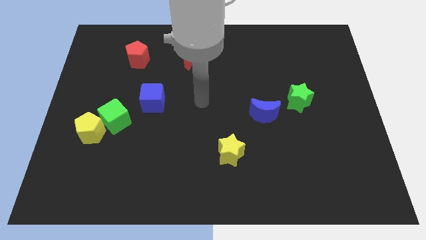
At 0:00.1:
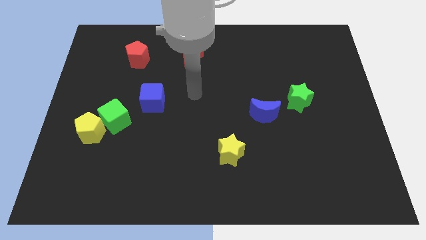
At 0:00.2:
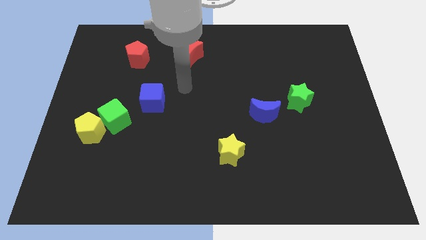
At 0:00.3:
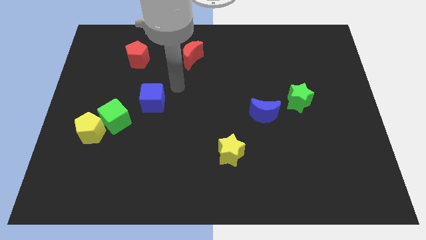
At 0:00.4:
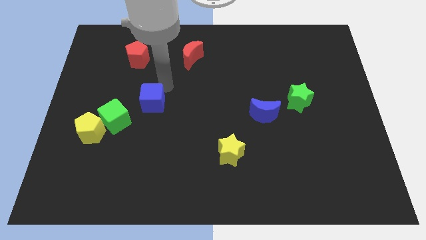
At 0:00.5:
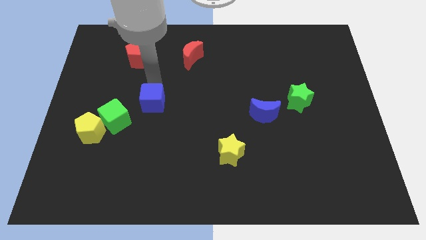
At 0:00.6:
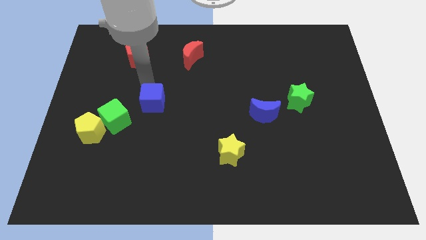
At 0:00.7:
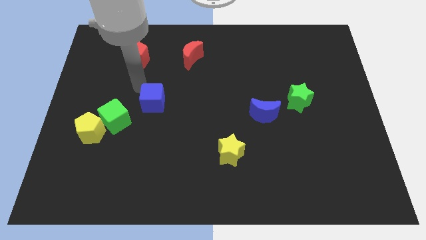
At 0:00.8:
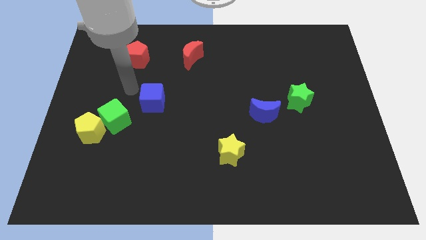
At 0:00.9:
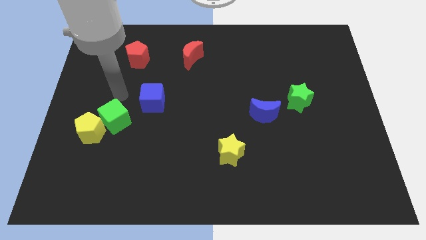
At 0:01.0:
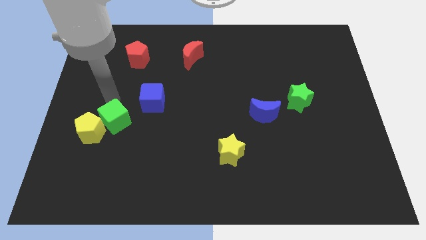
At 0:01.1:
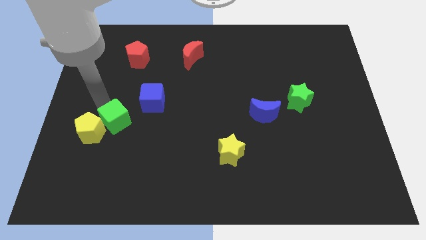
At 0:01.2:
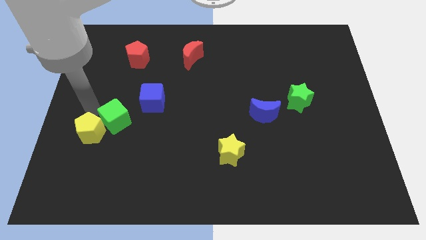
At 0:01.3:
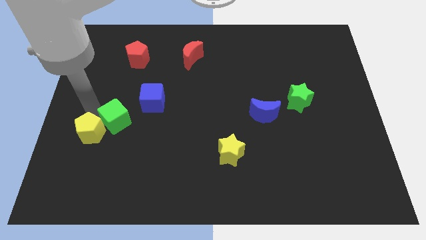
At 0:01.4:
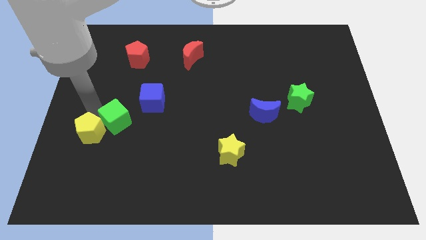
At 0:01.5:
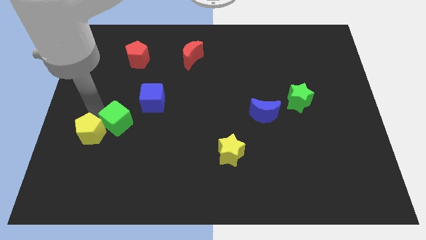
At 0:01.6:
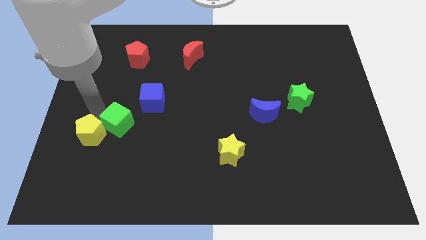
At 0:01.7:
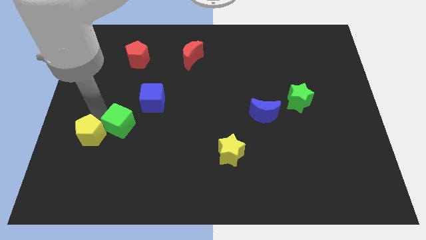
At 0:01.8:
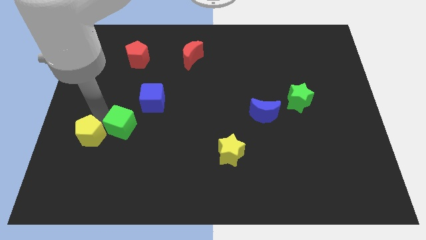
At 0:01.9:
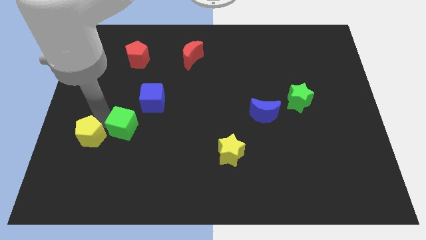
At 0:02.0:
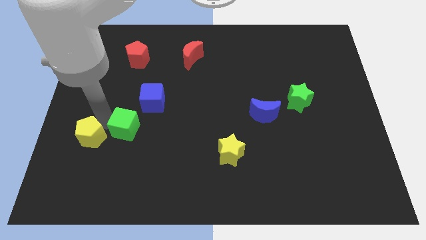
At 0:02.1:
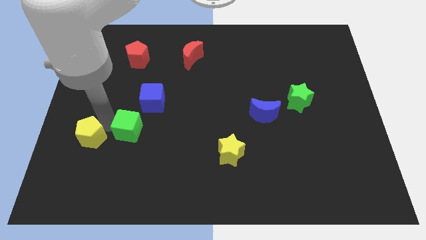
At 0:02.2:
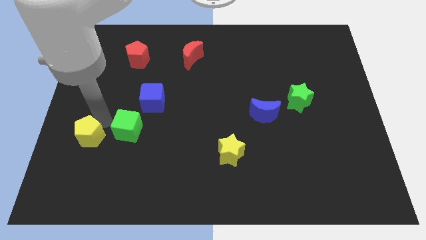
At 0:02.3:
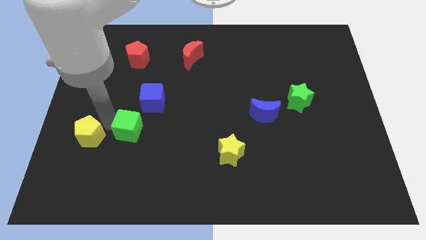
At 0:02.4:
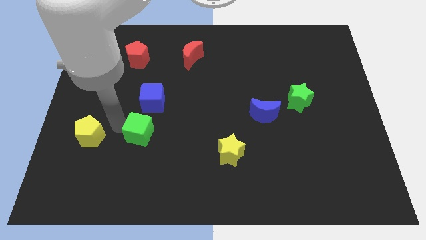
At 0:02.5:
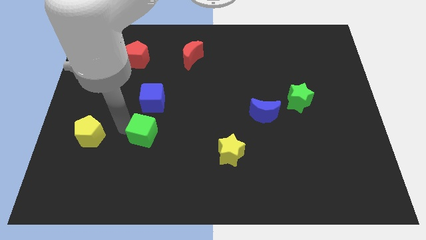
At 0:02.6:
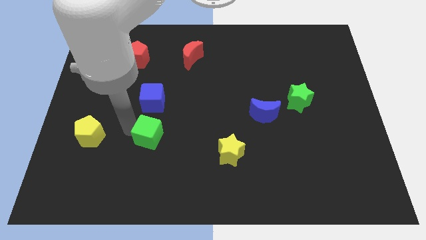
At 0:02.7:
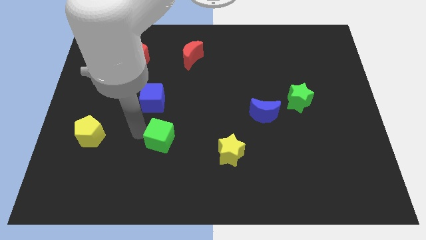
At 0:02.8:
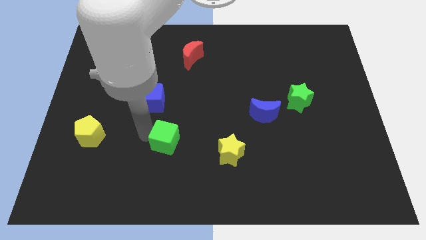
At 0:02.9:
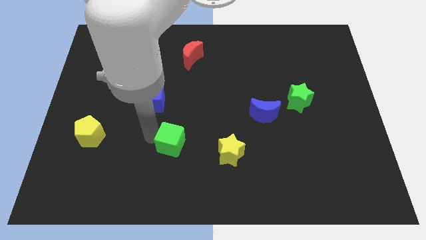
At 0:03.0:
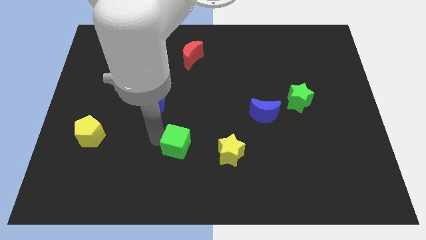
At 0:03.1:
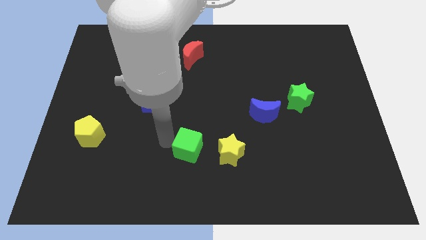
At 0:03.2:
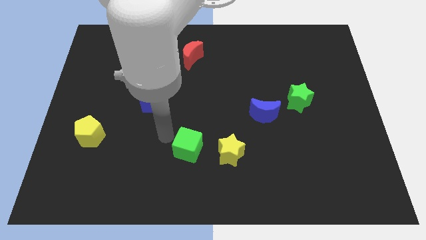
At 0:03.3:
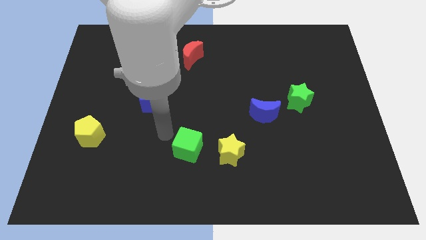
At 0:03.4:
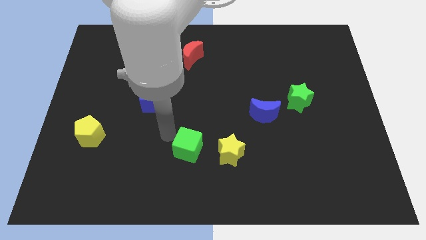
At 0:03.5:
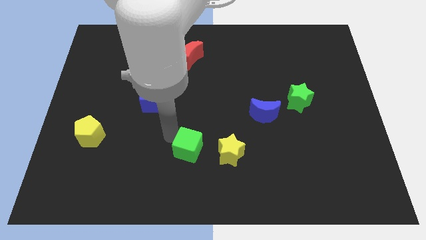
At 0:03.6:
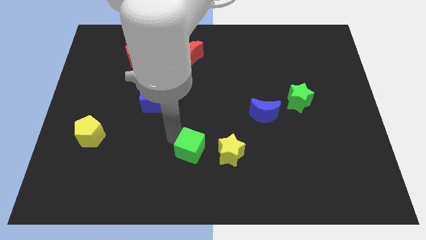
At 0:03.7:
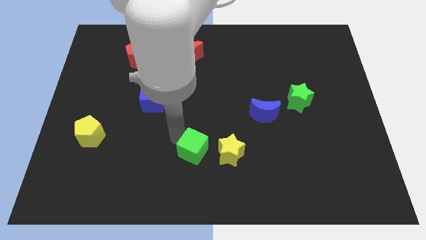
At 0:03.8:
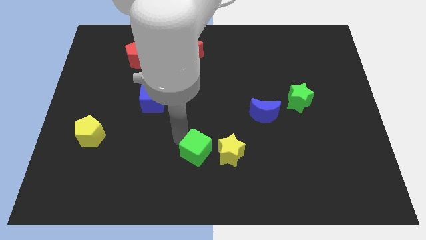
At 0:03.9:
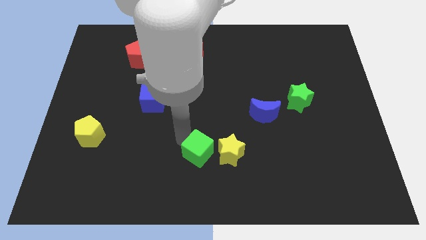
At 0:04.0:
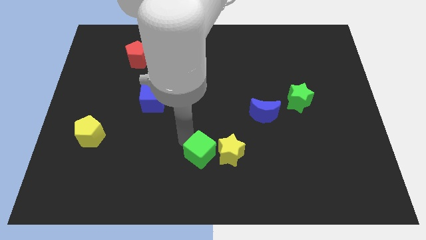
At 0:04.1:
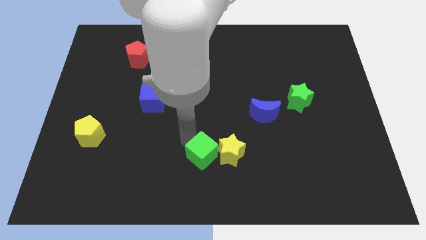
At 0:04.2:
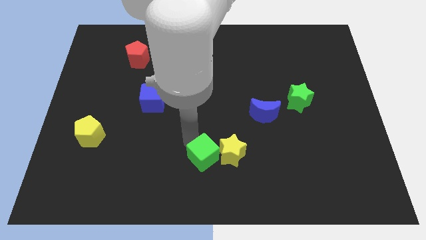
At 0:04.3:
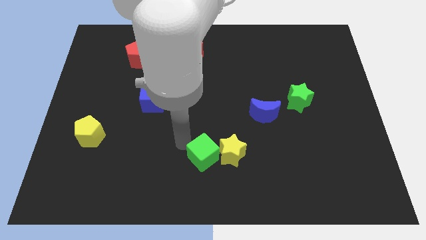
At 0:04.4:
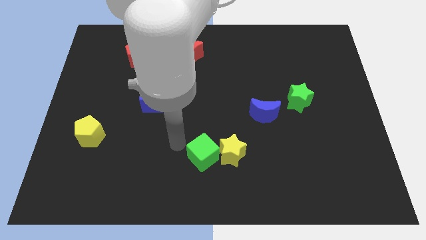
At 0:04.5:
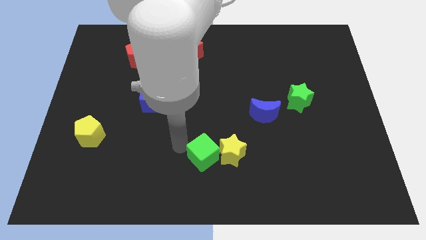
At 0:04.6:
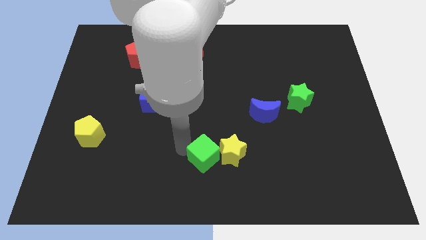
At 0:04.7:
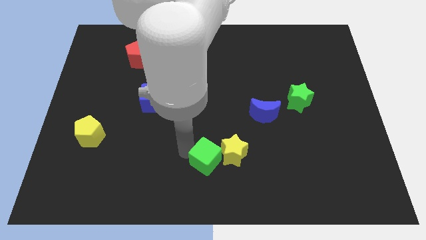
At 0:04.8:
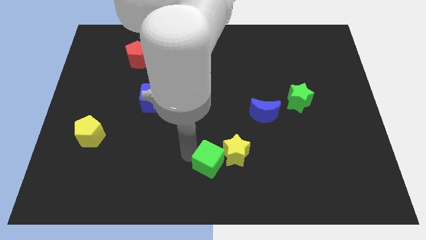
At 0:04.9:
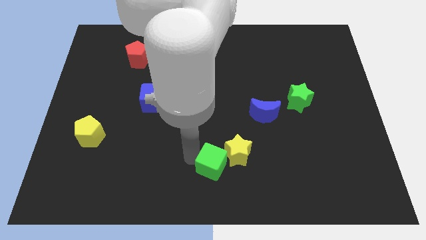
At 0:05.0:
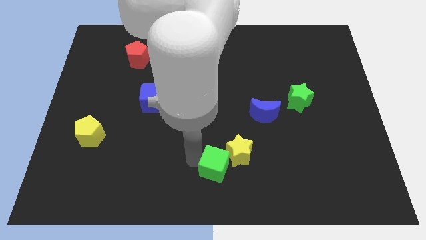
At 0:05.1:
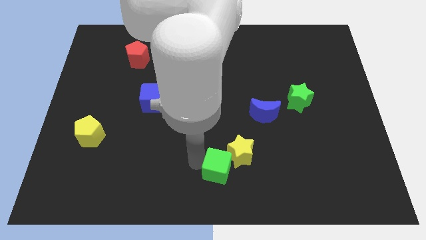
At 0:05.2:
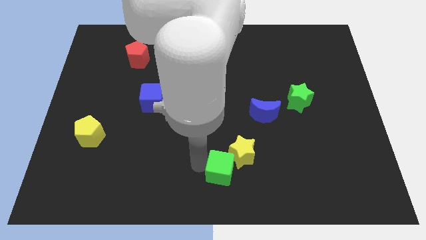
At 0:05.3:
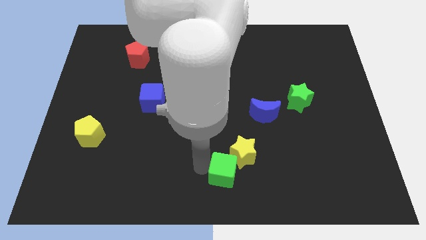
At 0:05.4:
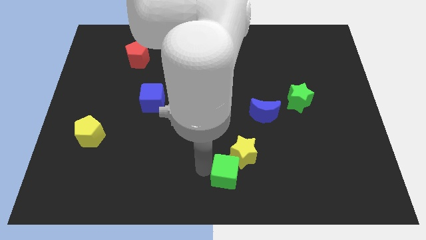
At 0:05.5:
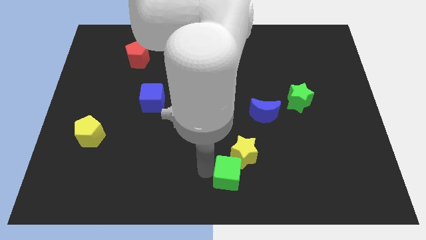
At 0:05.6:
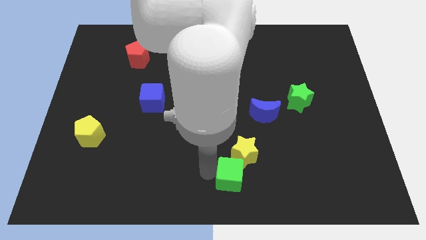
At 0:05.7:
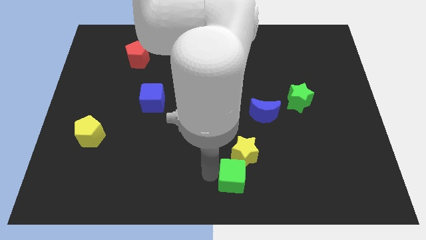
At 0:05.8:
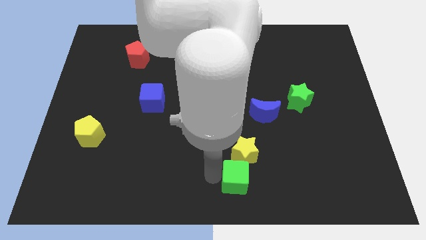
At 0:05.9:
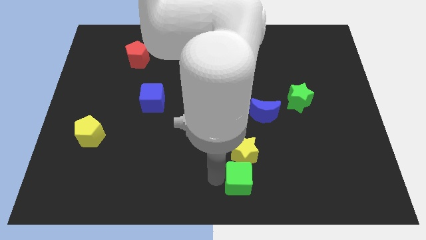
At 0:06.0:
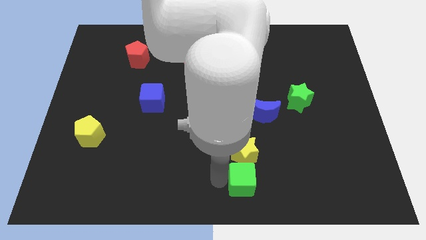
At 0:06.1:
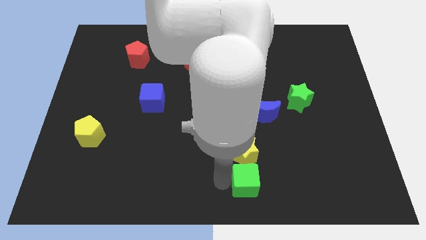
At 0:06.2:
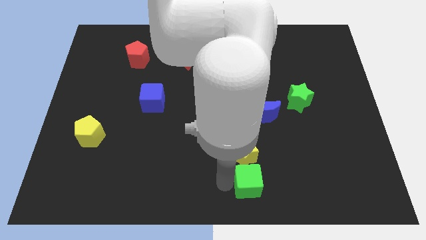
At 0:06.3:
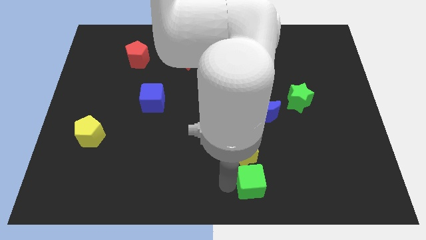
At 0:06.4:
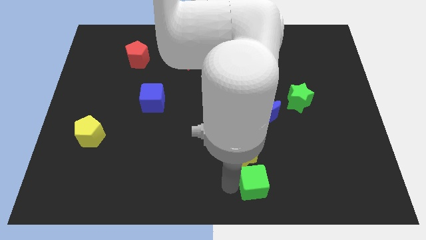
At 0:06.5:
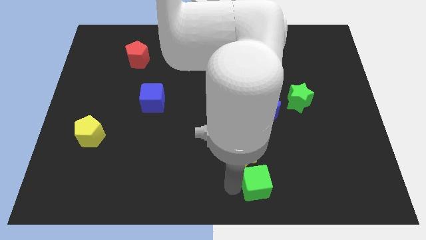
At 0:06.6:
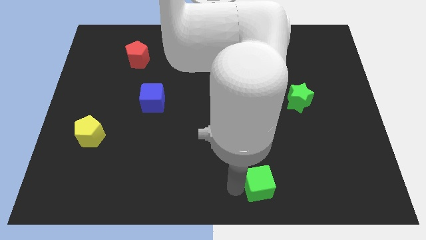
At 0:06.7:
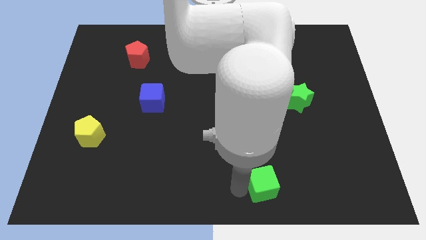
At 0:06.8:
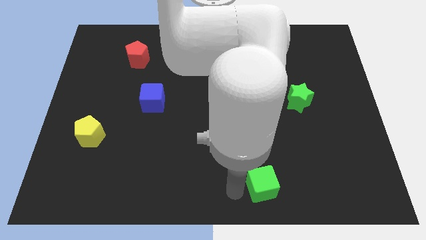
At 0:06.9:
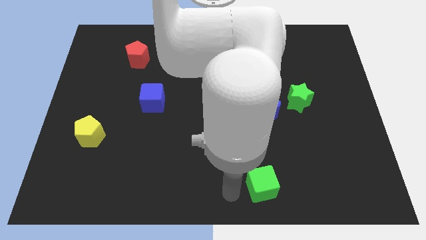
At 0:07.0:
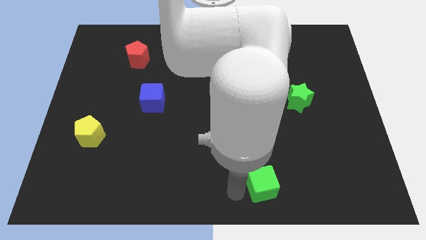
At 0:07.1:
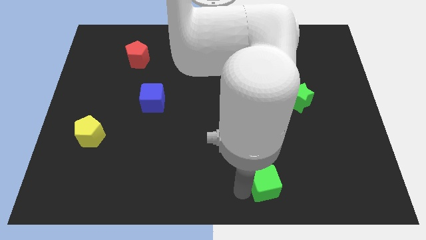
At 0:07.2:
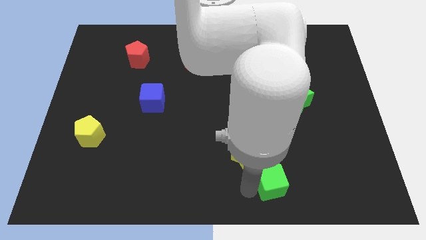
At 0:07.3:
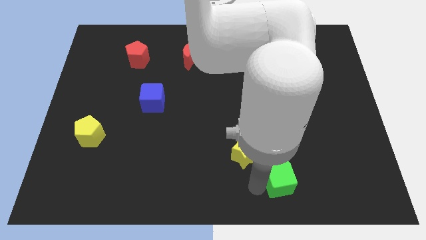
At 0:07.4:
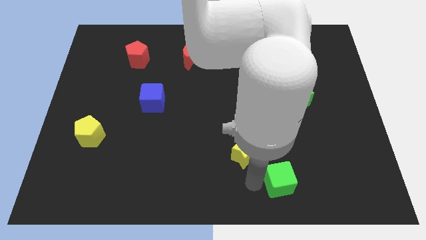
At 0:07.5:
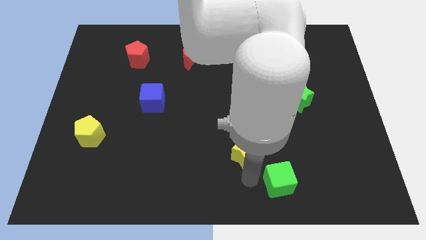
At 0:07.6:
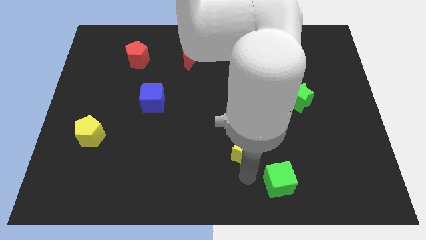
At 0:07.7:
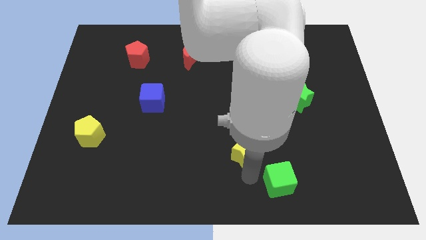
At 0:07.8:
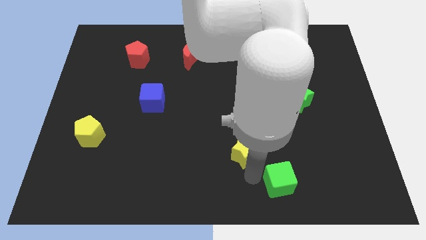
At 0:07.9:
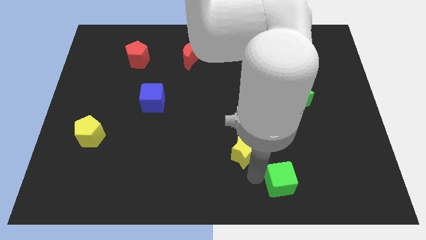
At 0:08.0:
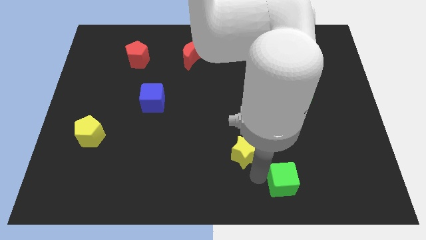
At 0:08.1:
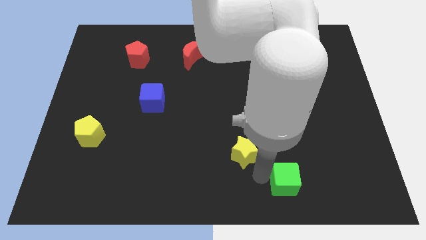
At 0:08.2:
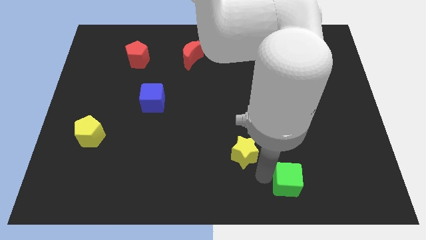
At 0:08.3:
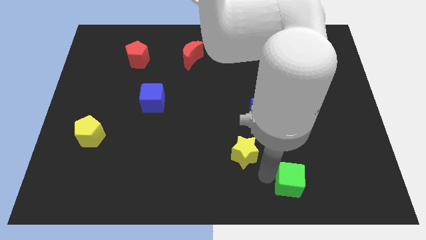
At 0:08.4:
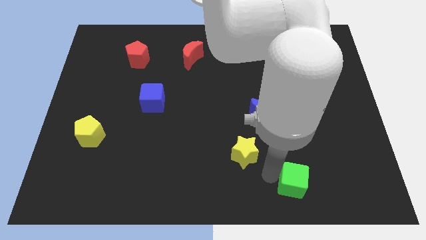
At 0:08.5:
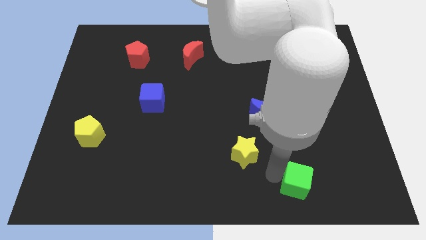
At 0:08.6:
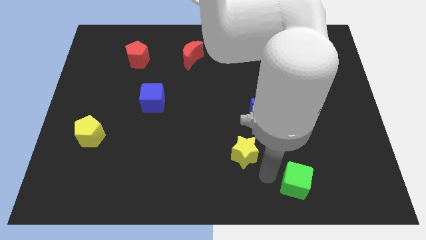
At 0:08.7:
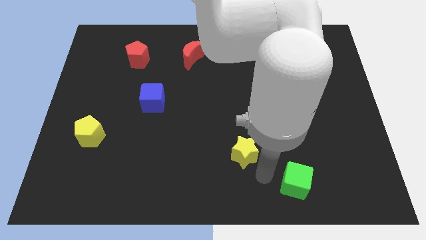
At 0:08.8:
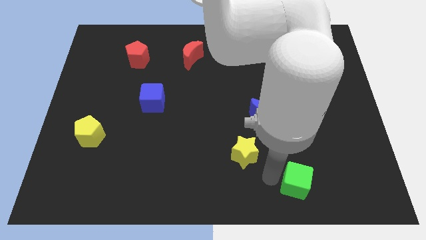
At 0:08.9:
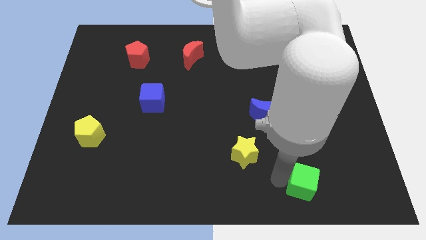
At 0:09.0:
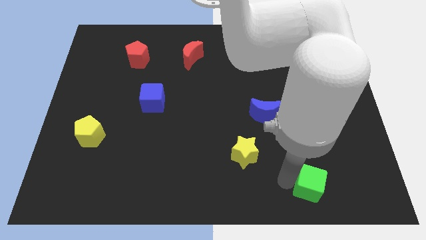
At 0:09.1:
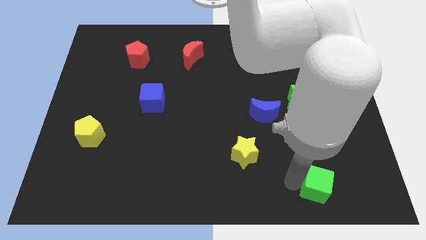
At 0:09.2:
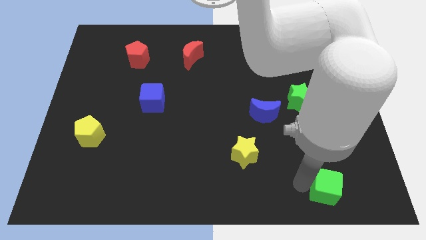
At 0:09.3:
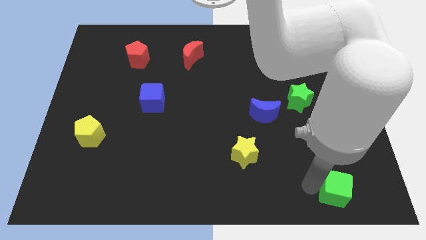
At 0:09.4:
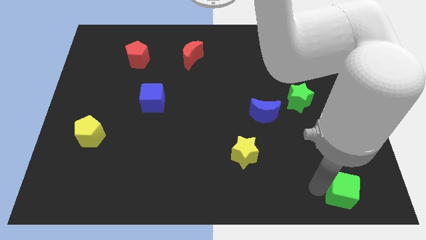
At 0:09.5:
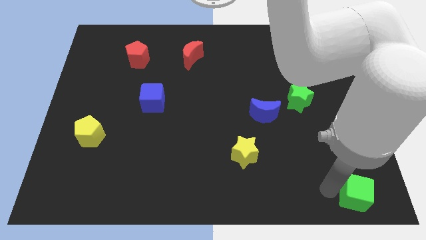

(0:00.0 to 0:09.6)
slide the green cube to the lower right corner
